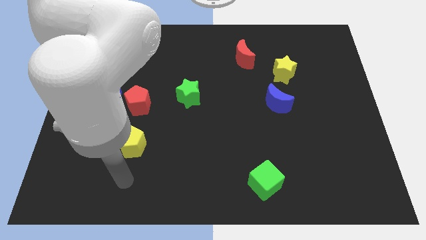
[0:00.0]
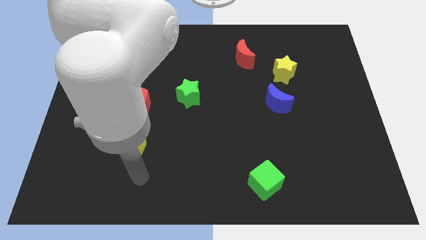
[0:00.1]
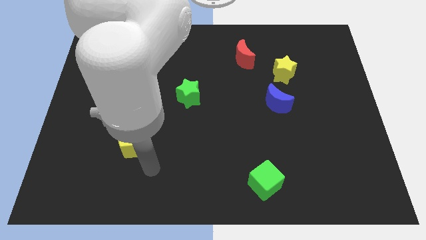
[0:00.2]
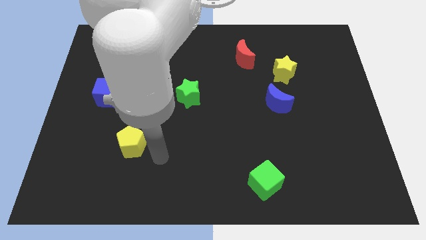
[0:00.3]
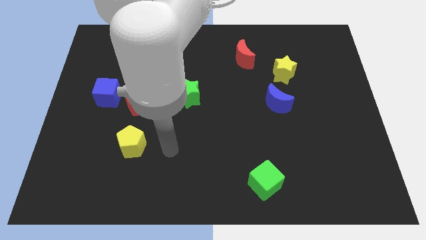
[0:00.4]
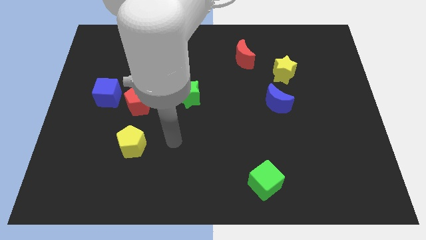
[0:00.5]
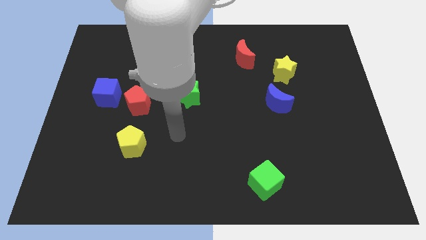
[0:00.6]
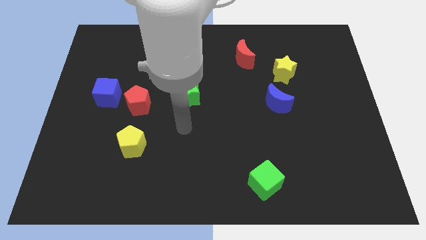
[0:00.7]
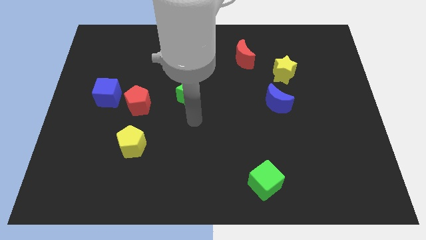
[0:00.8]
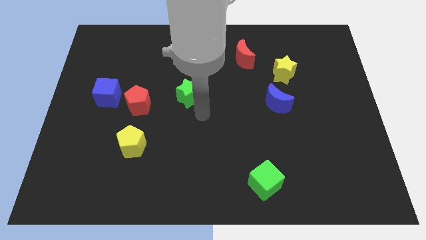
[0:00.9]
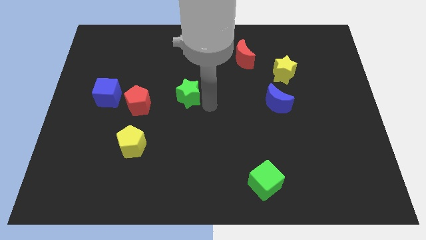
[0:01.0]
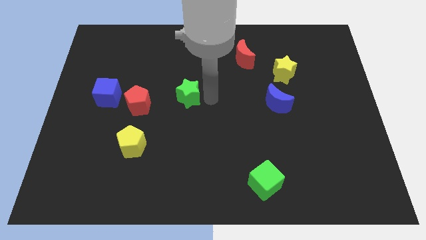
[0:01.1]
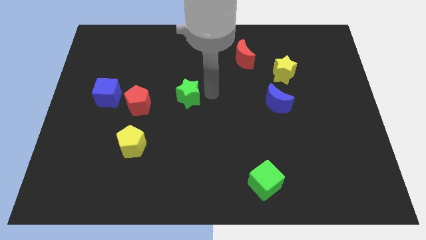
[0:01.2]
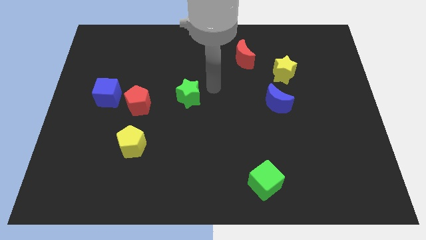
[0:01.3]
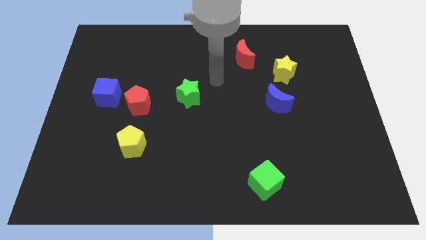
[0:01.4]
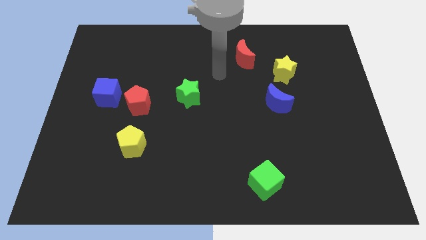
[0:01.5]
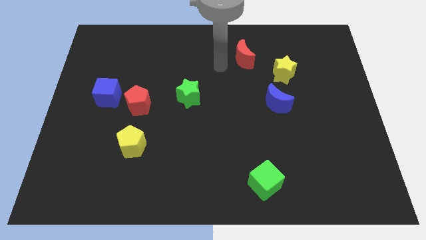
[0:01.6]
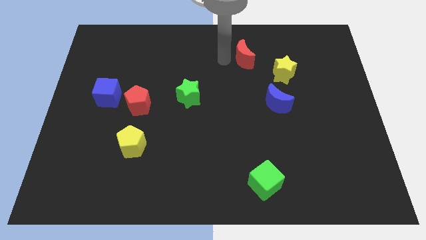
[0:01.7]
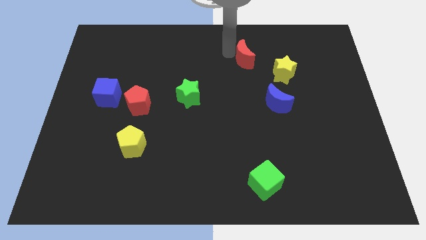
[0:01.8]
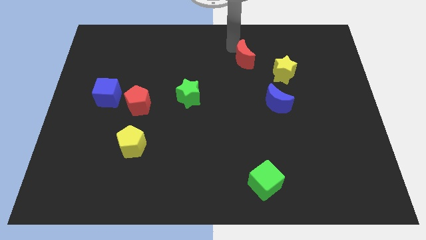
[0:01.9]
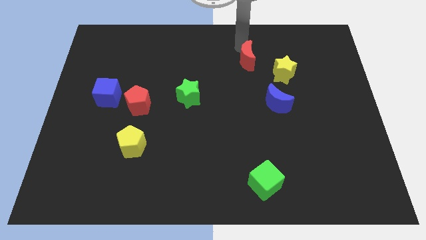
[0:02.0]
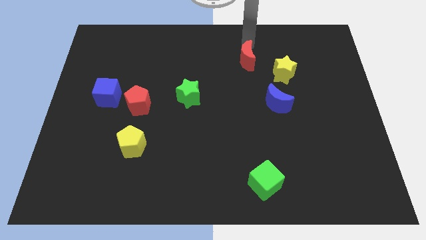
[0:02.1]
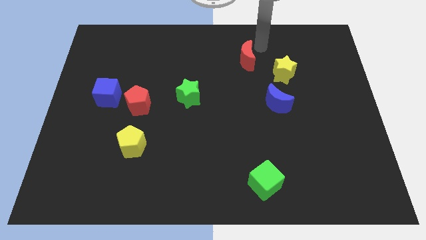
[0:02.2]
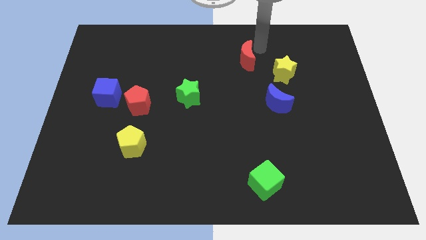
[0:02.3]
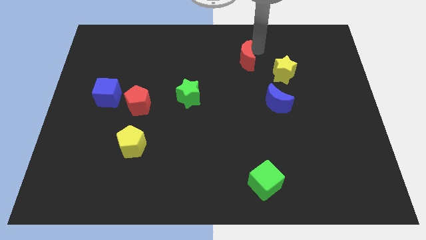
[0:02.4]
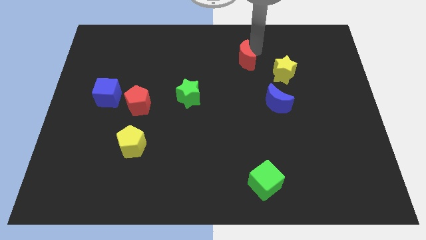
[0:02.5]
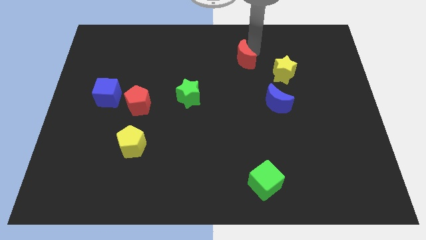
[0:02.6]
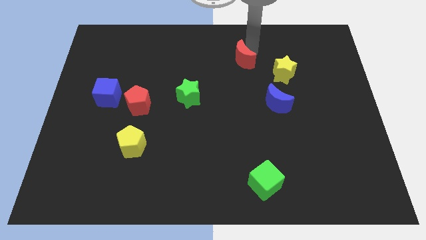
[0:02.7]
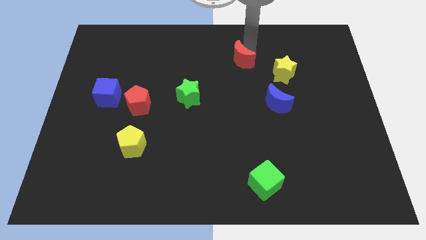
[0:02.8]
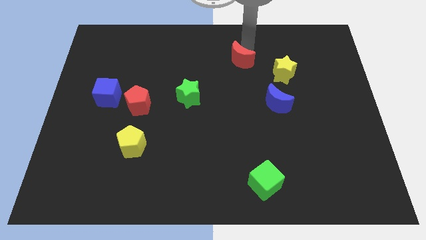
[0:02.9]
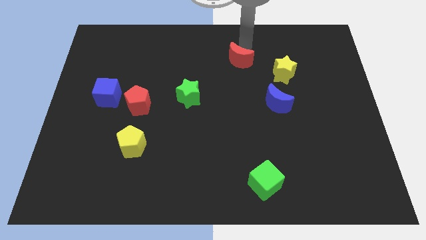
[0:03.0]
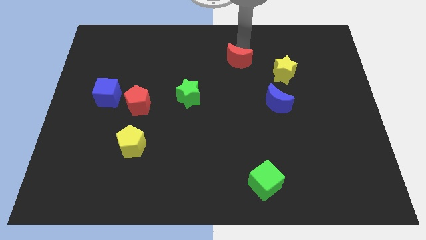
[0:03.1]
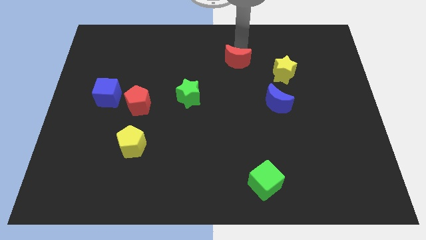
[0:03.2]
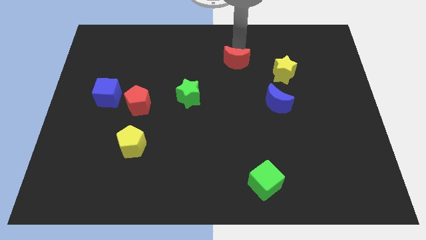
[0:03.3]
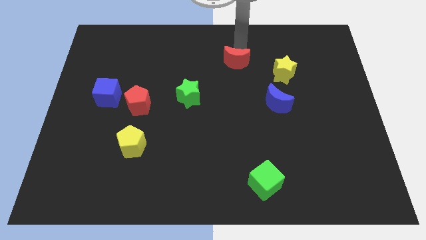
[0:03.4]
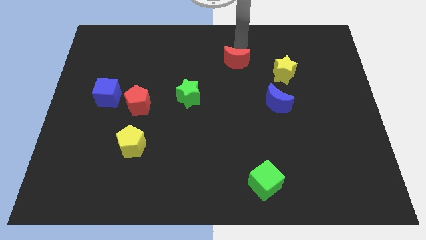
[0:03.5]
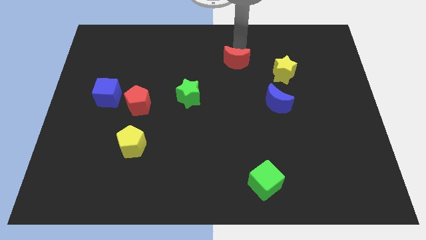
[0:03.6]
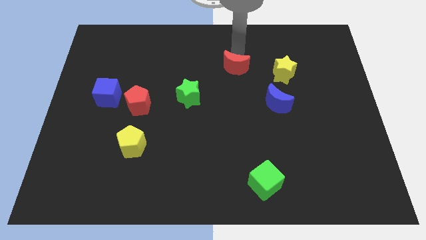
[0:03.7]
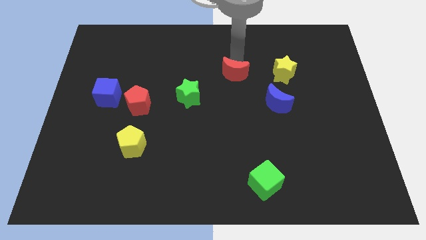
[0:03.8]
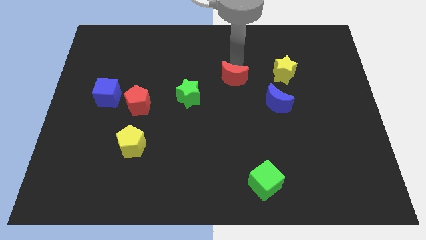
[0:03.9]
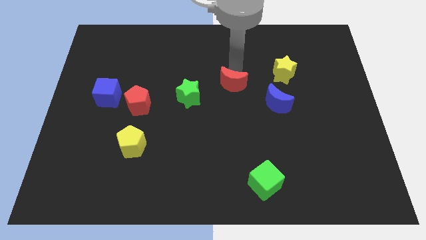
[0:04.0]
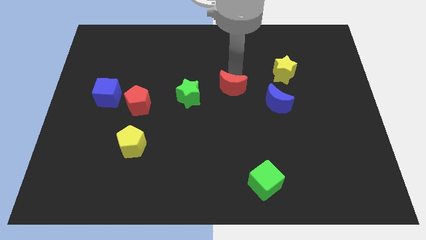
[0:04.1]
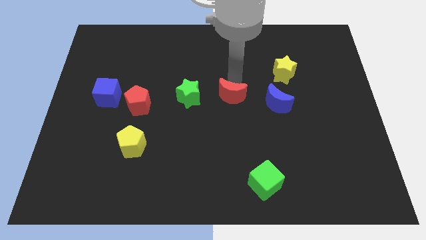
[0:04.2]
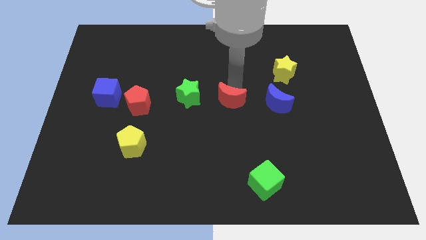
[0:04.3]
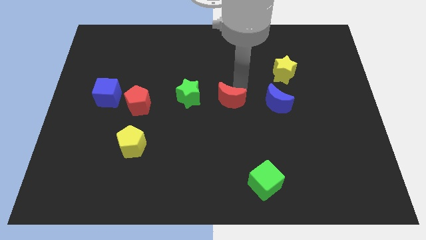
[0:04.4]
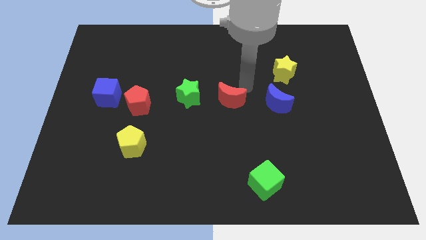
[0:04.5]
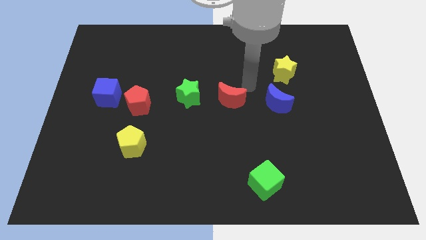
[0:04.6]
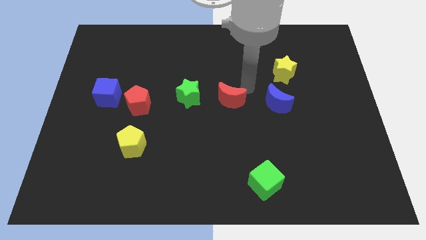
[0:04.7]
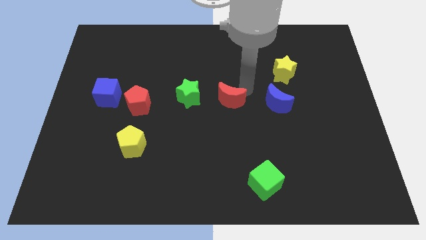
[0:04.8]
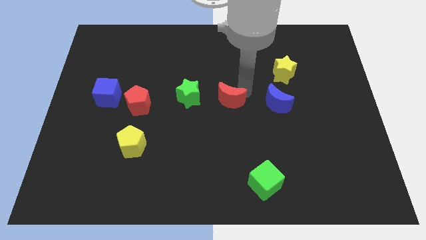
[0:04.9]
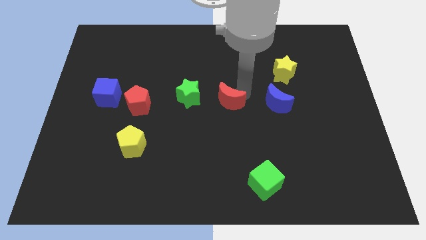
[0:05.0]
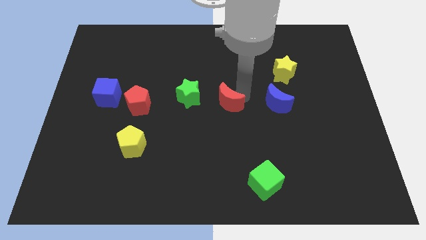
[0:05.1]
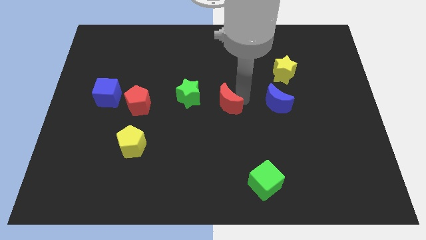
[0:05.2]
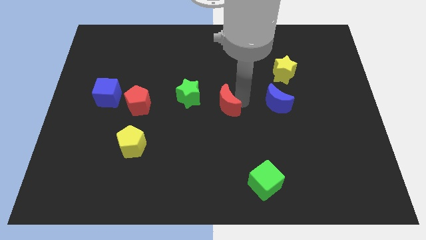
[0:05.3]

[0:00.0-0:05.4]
move the red moon diagonally down and to the right of the green star

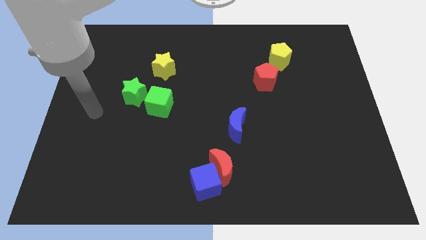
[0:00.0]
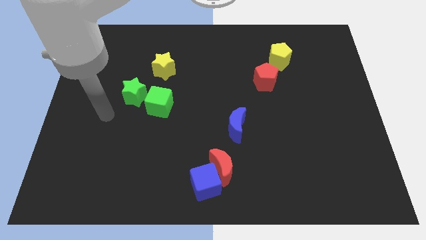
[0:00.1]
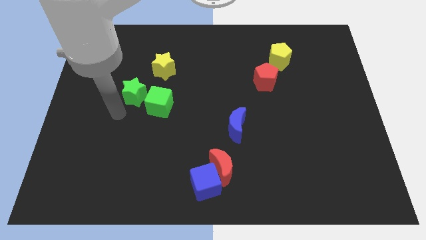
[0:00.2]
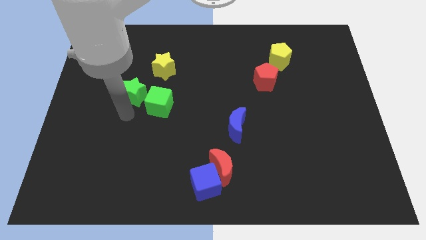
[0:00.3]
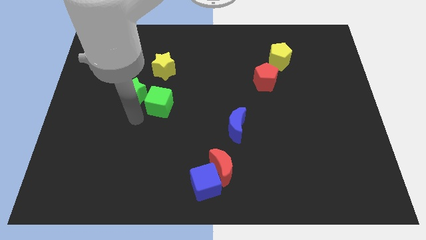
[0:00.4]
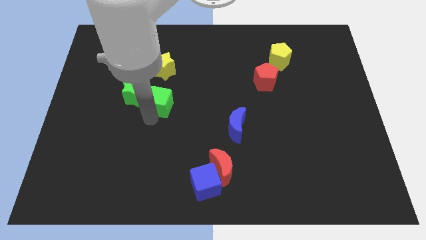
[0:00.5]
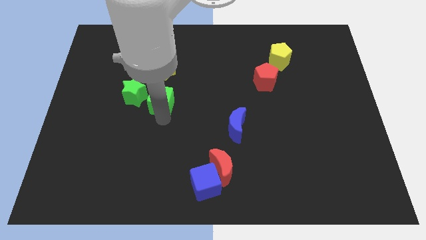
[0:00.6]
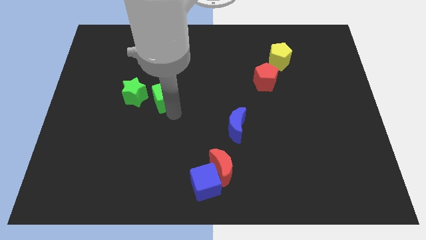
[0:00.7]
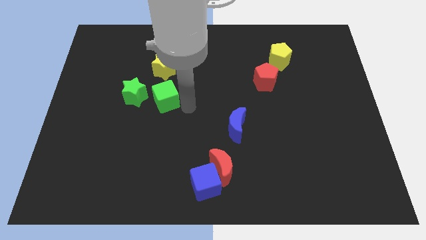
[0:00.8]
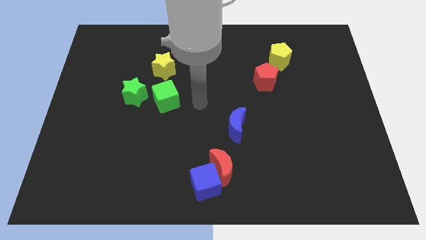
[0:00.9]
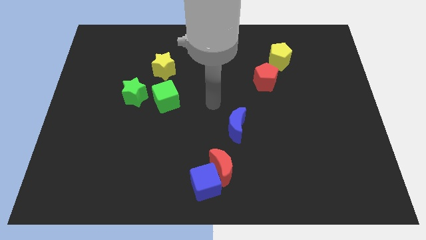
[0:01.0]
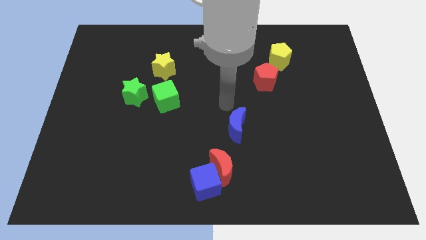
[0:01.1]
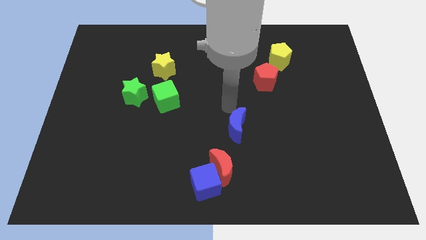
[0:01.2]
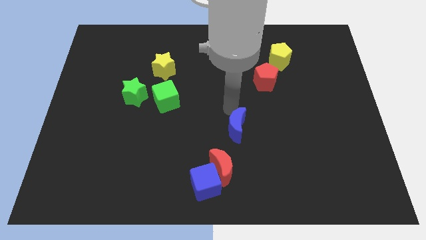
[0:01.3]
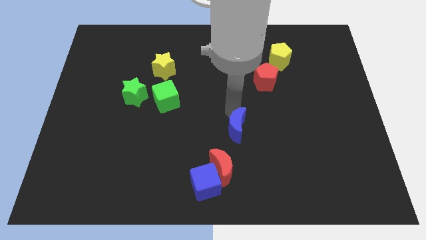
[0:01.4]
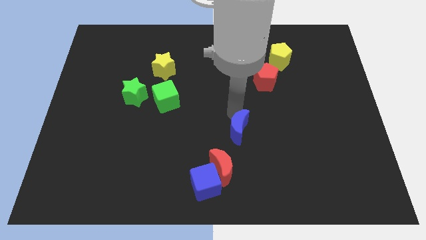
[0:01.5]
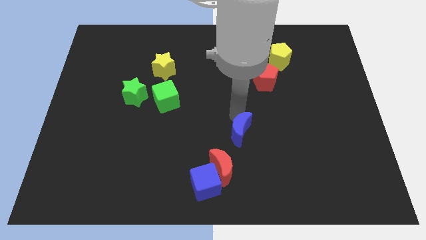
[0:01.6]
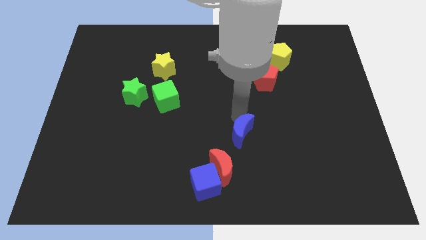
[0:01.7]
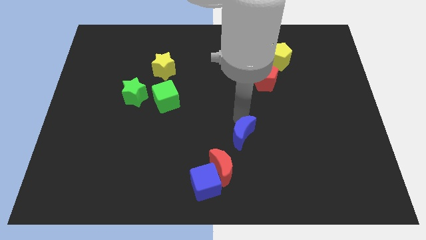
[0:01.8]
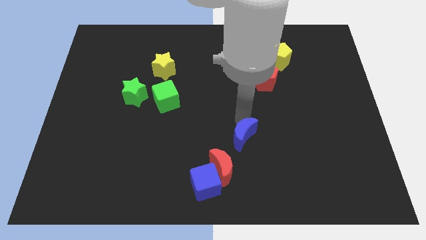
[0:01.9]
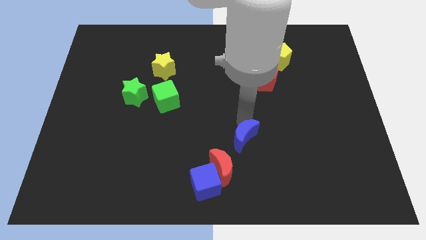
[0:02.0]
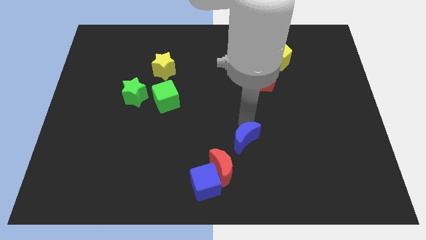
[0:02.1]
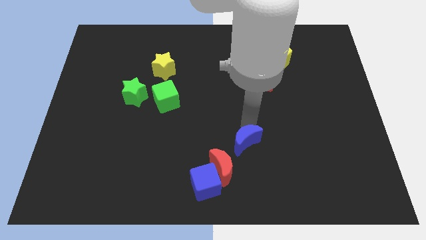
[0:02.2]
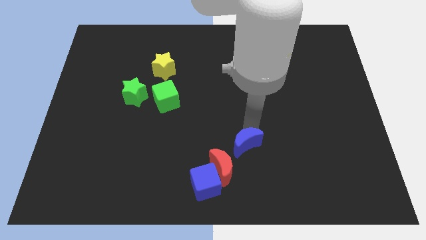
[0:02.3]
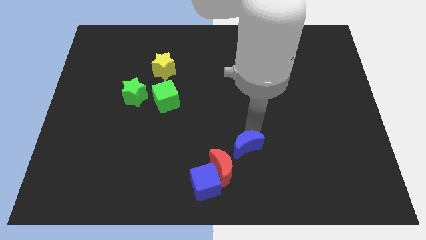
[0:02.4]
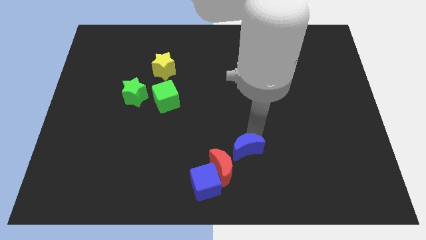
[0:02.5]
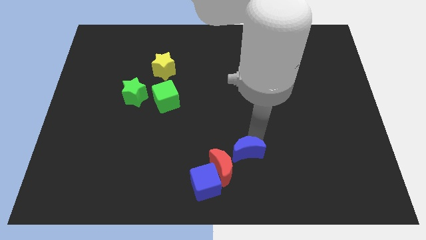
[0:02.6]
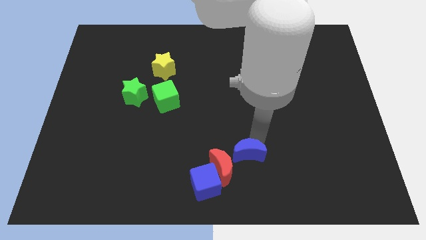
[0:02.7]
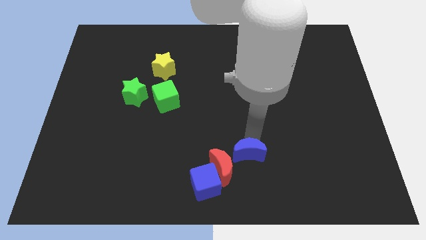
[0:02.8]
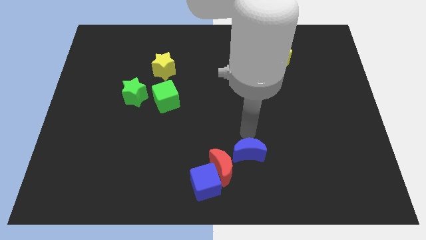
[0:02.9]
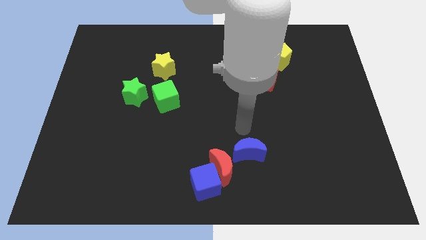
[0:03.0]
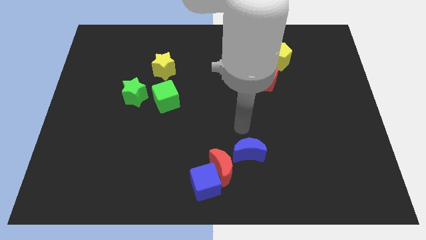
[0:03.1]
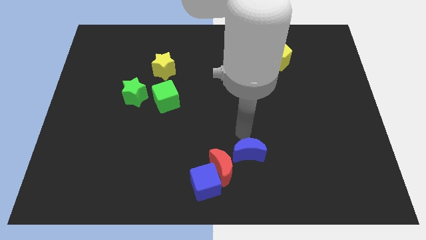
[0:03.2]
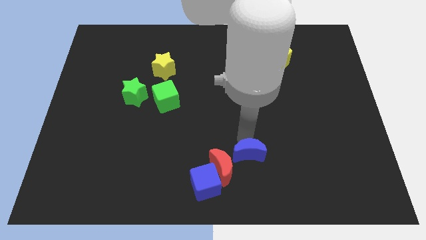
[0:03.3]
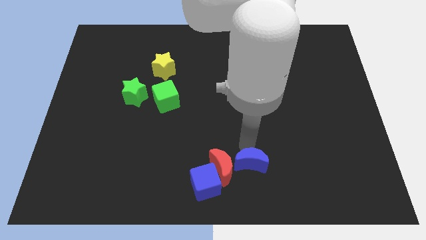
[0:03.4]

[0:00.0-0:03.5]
move the blue moon just right of the blue cube
